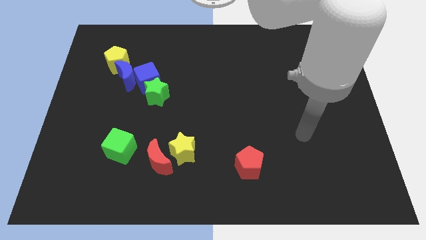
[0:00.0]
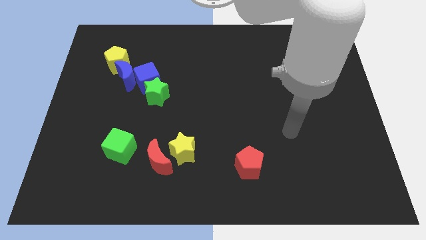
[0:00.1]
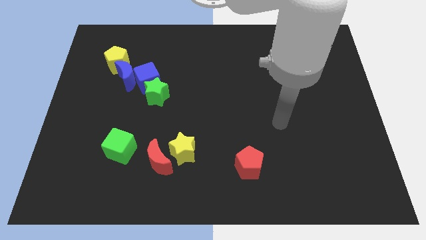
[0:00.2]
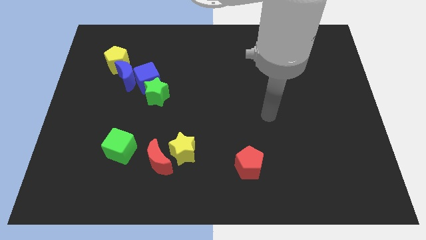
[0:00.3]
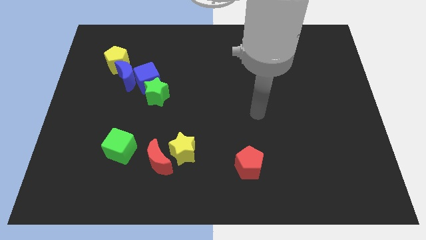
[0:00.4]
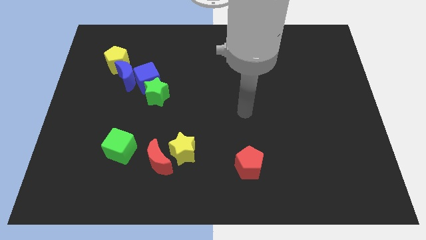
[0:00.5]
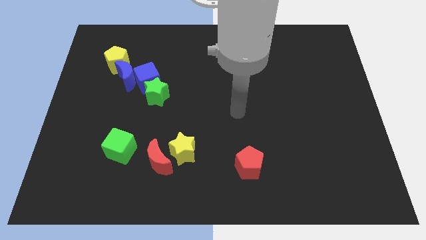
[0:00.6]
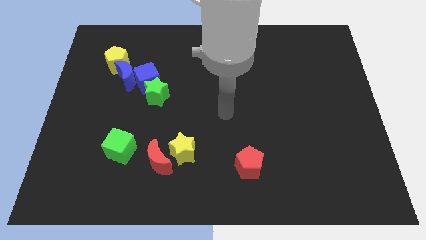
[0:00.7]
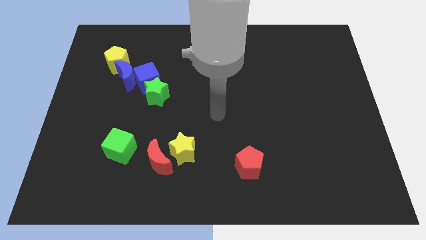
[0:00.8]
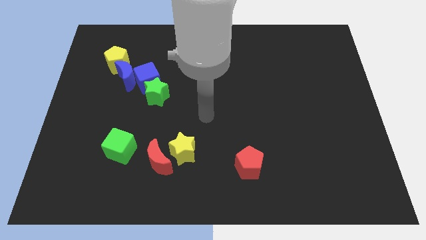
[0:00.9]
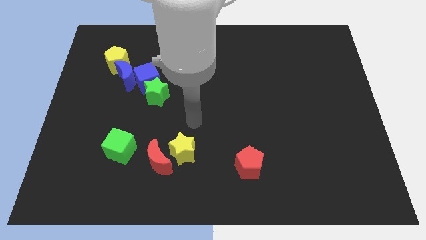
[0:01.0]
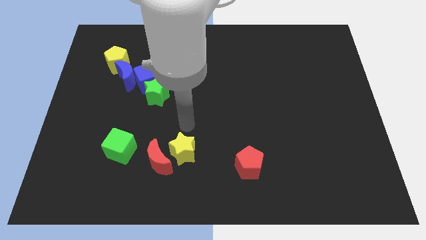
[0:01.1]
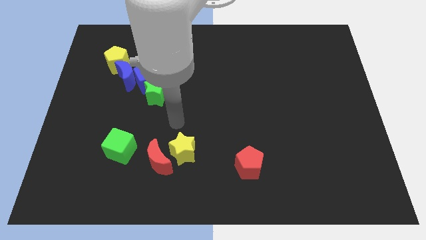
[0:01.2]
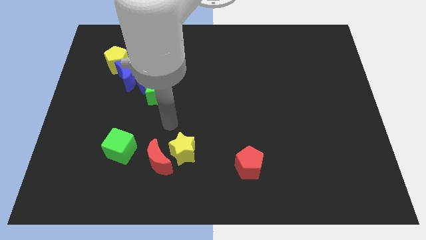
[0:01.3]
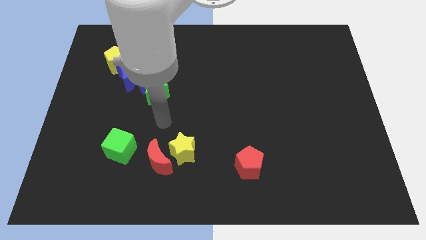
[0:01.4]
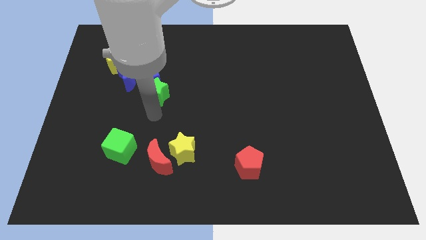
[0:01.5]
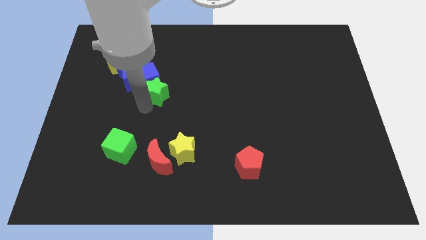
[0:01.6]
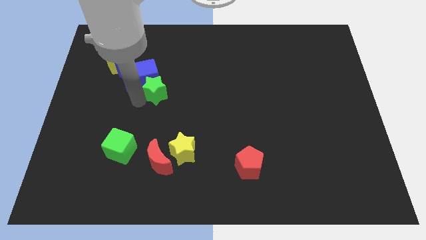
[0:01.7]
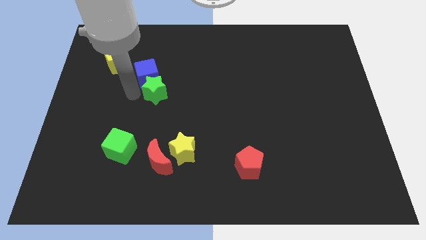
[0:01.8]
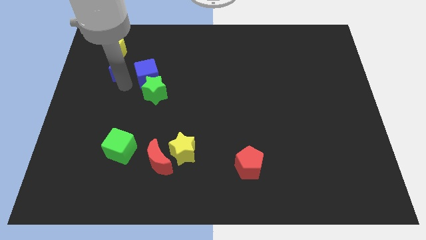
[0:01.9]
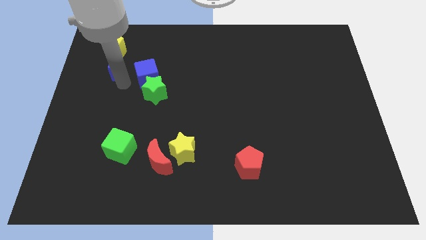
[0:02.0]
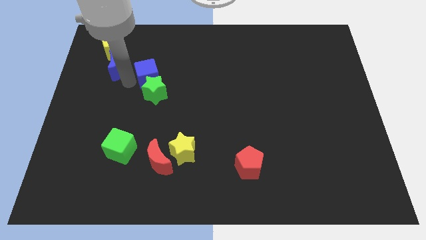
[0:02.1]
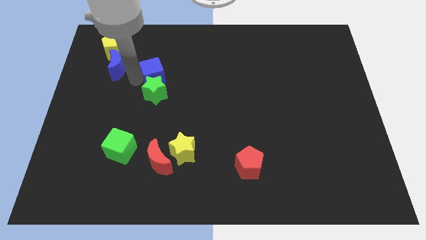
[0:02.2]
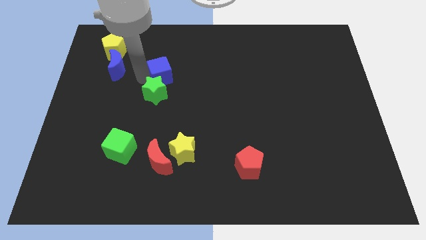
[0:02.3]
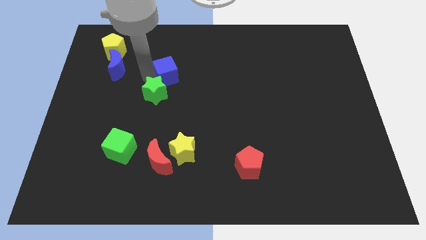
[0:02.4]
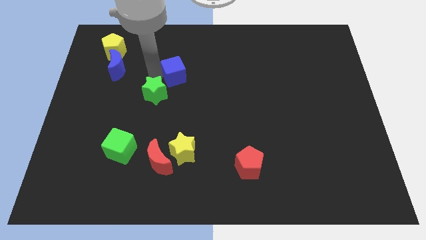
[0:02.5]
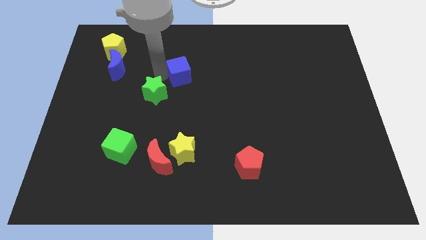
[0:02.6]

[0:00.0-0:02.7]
pull the blue cube apart from the green star and blue moon

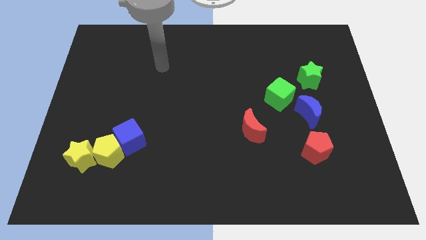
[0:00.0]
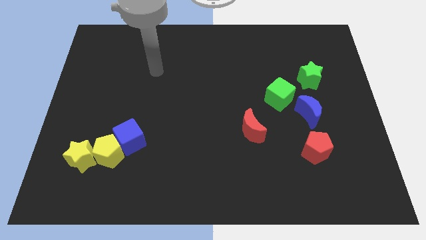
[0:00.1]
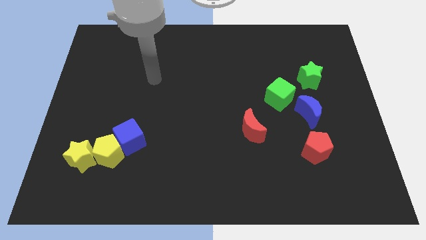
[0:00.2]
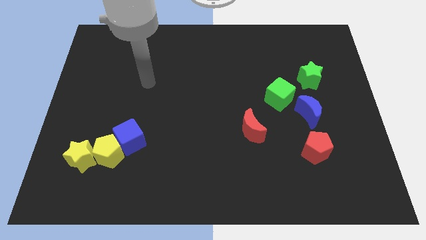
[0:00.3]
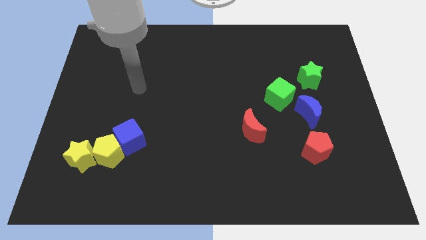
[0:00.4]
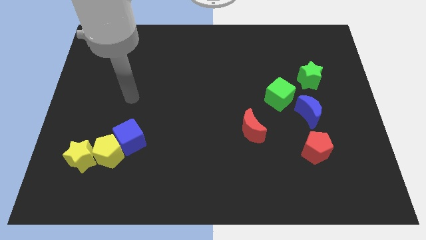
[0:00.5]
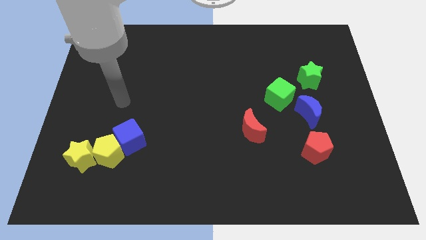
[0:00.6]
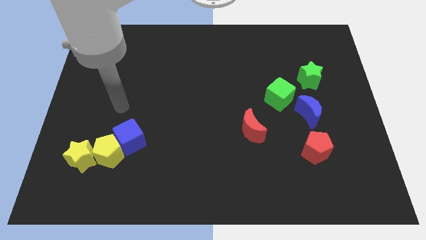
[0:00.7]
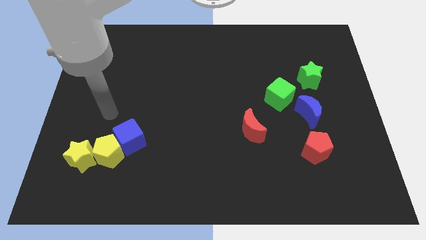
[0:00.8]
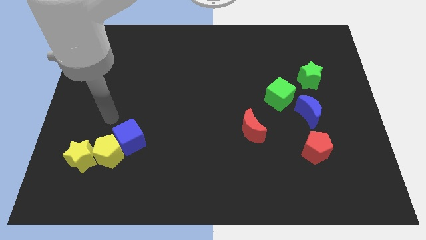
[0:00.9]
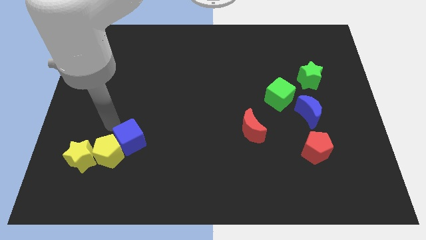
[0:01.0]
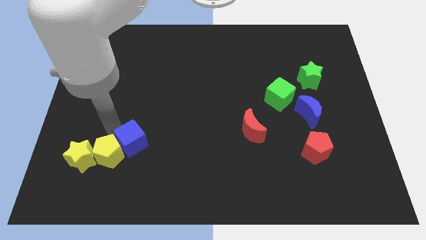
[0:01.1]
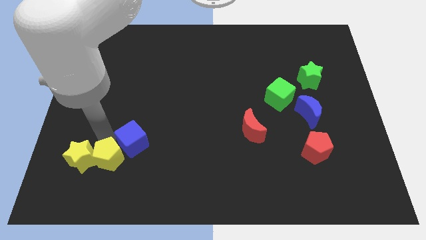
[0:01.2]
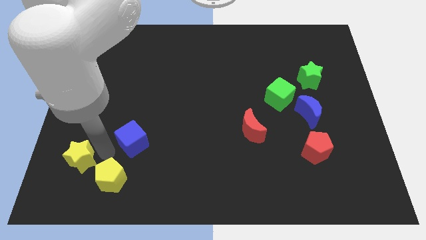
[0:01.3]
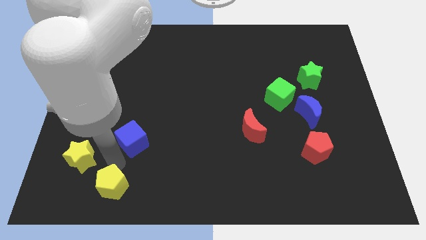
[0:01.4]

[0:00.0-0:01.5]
separate the blue cube from the yellow pentagon

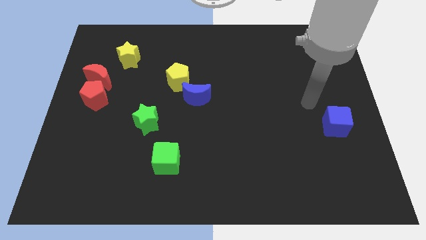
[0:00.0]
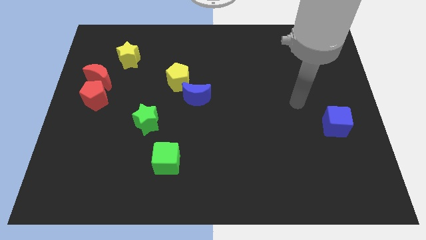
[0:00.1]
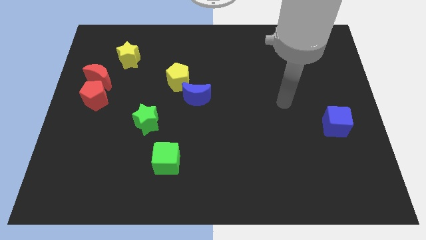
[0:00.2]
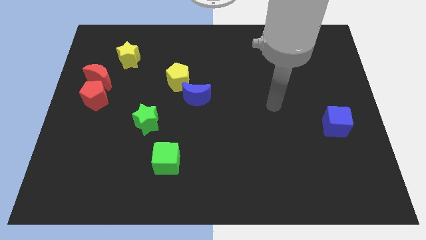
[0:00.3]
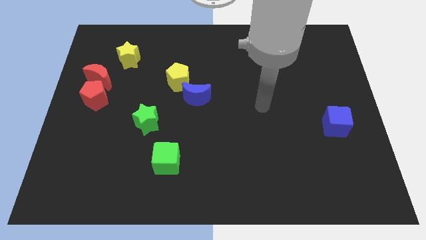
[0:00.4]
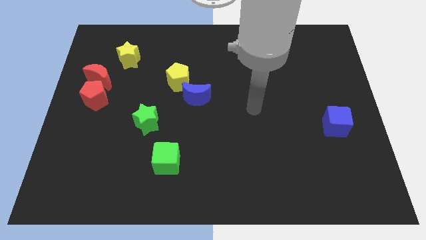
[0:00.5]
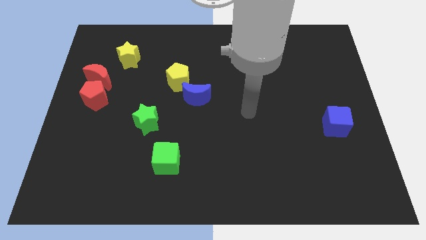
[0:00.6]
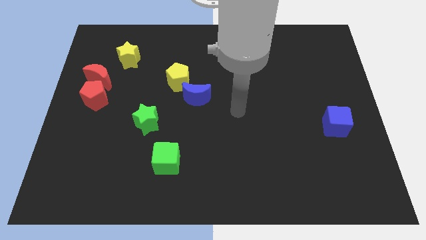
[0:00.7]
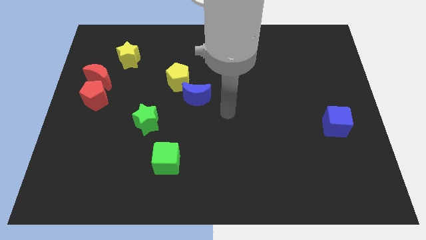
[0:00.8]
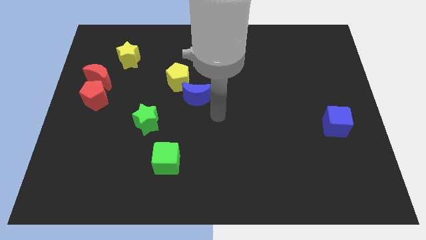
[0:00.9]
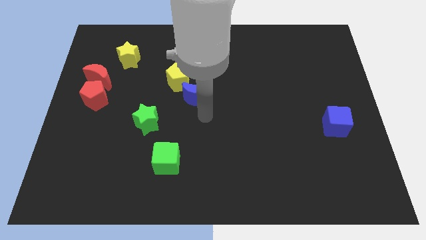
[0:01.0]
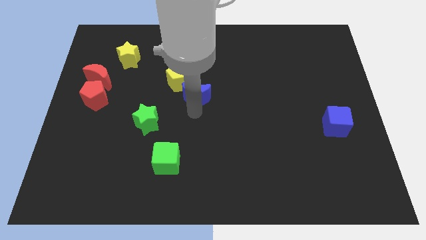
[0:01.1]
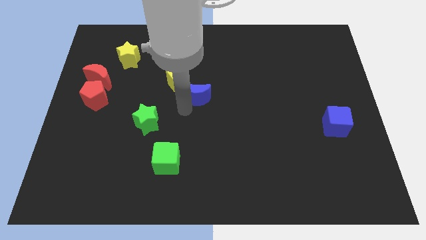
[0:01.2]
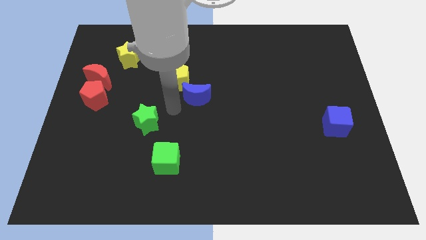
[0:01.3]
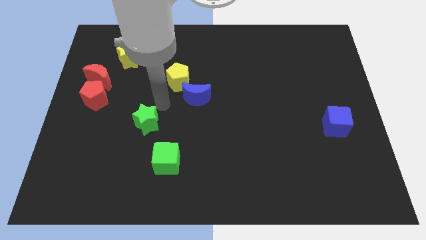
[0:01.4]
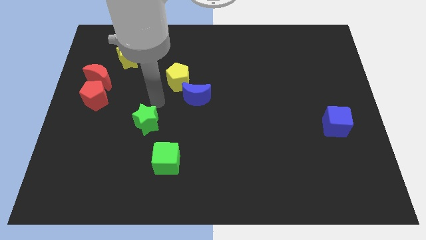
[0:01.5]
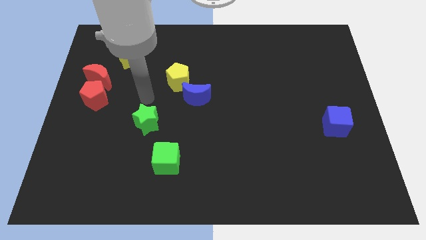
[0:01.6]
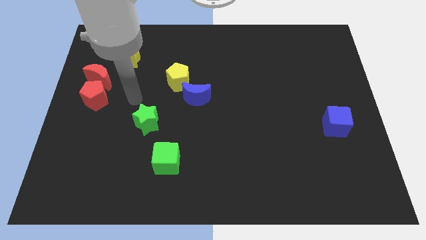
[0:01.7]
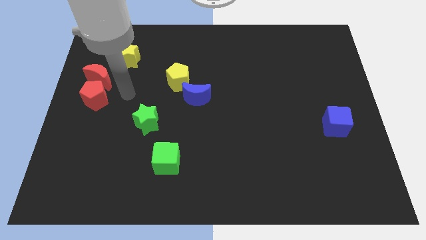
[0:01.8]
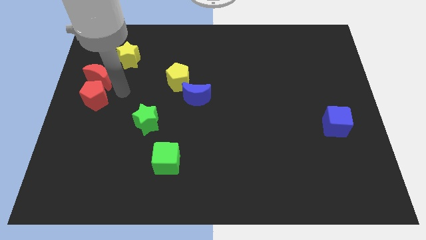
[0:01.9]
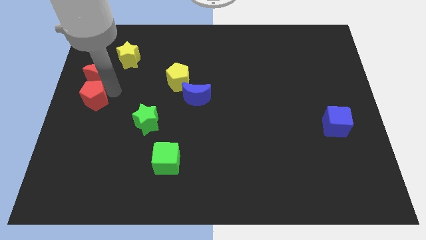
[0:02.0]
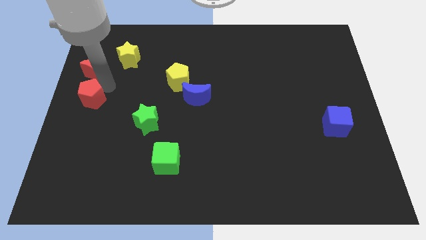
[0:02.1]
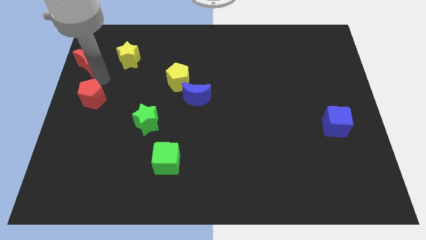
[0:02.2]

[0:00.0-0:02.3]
pull the red pentagon apart from the red moon

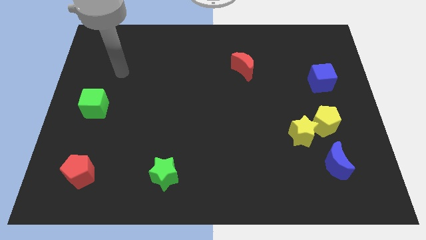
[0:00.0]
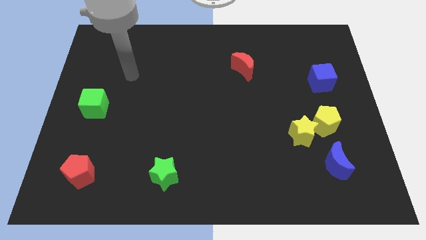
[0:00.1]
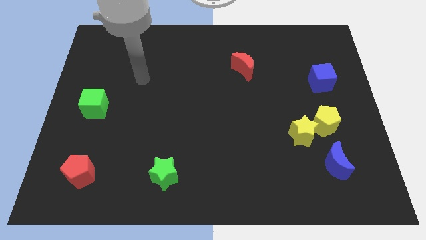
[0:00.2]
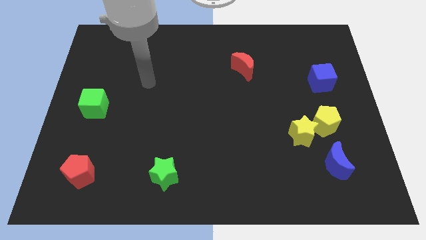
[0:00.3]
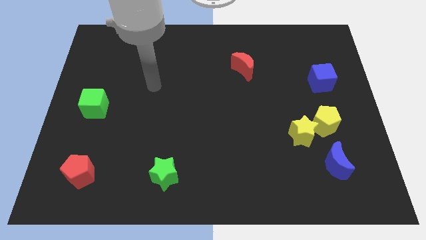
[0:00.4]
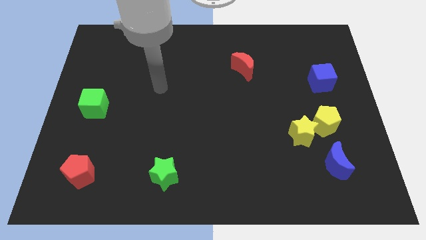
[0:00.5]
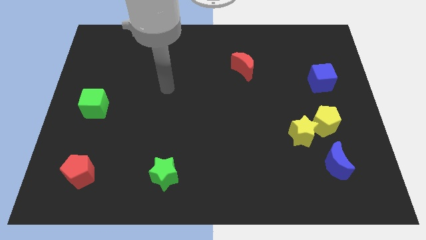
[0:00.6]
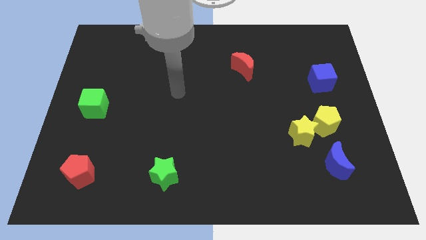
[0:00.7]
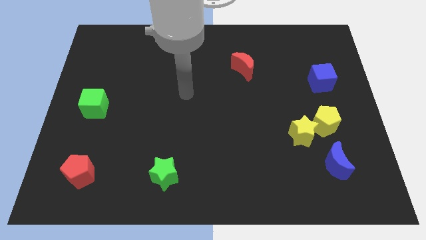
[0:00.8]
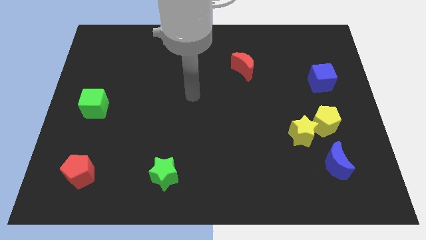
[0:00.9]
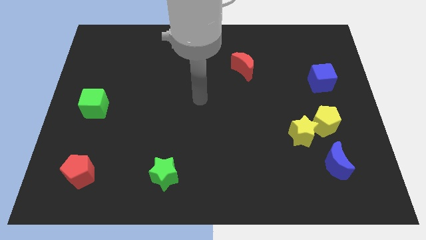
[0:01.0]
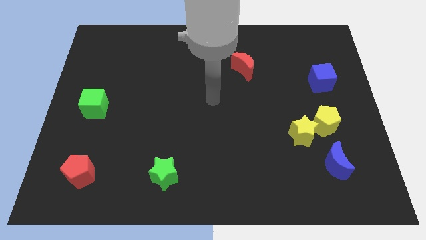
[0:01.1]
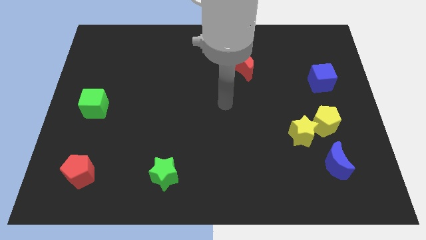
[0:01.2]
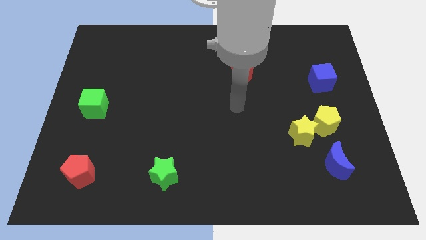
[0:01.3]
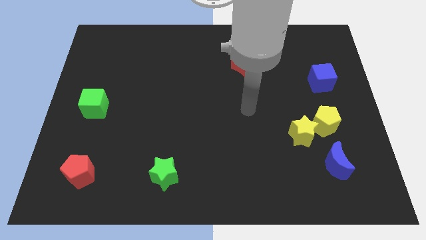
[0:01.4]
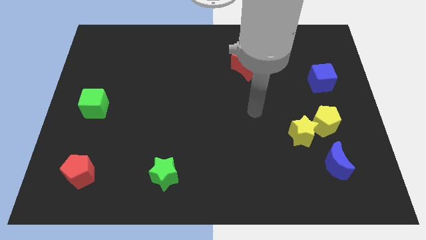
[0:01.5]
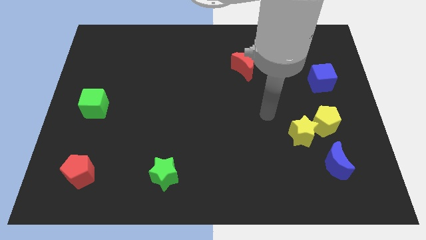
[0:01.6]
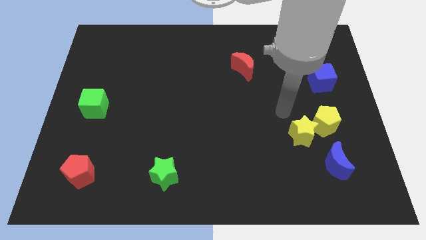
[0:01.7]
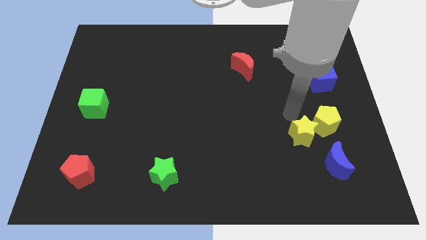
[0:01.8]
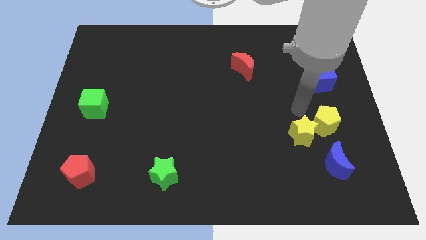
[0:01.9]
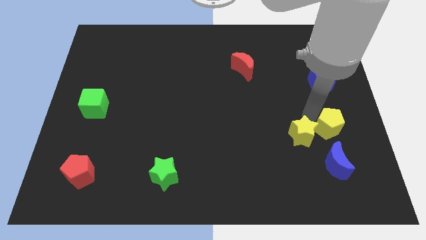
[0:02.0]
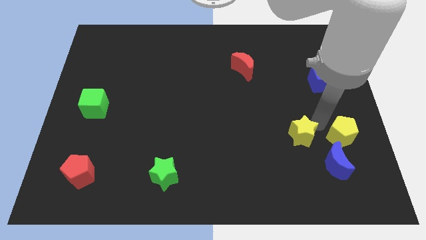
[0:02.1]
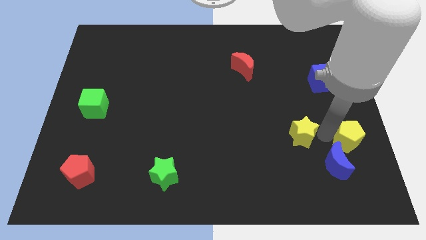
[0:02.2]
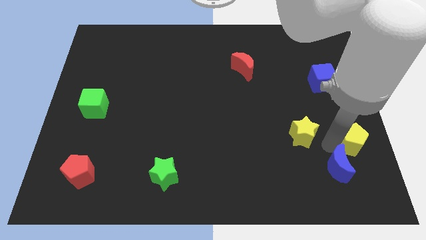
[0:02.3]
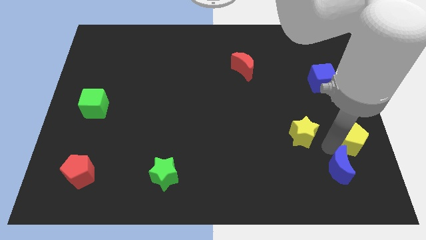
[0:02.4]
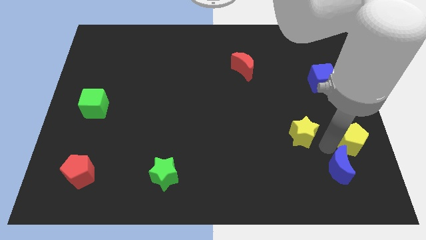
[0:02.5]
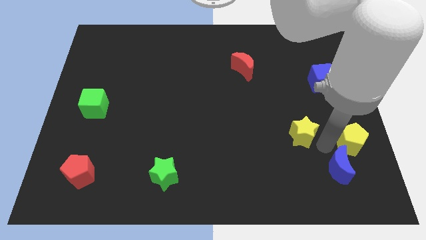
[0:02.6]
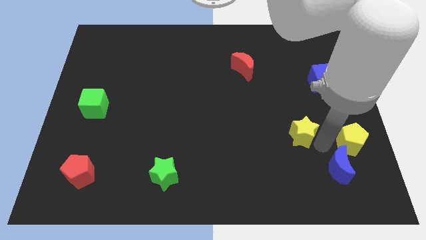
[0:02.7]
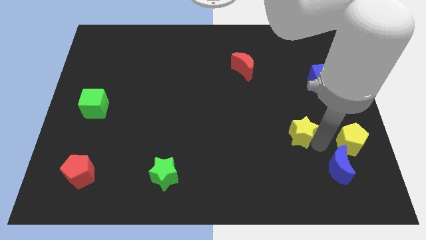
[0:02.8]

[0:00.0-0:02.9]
separate the yellow star from the yellow pentagon and blue moon
